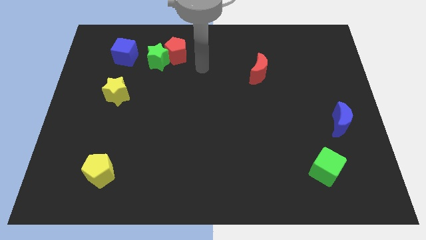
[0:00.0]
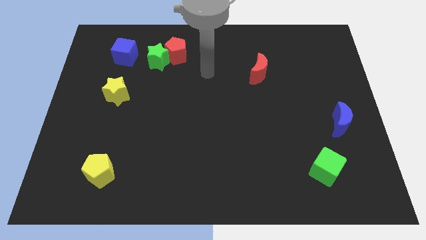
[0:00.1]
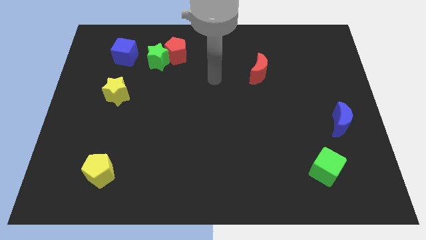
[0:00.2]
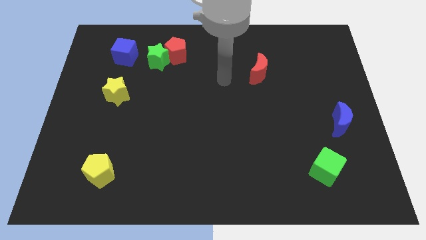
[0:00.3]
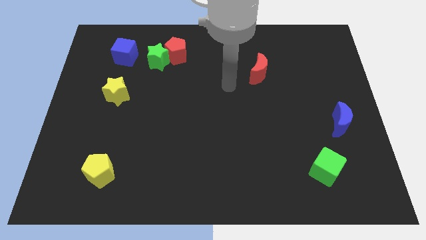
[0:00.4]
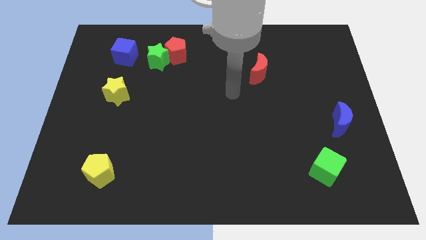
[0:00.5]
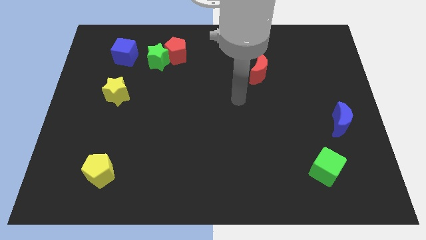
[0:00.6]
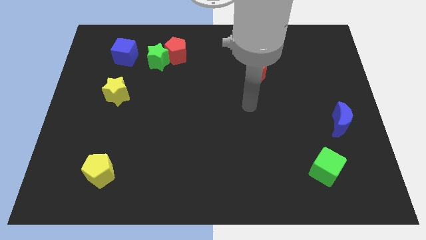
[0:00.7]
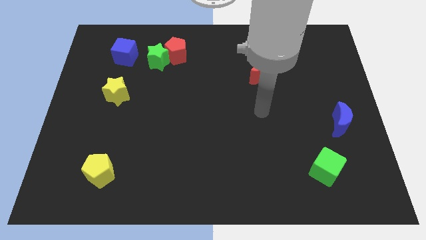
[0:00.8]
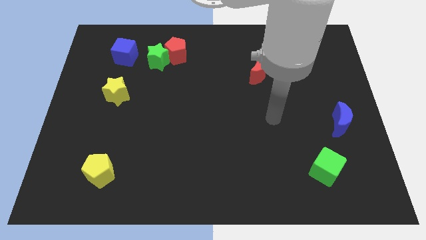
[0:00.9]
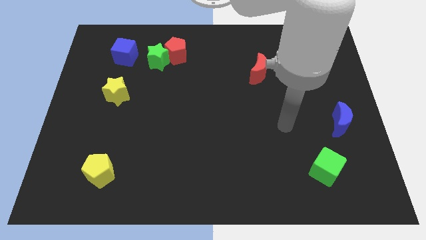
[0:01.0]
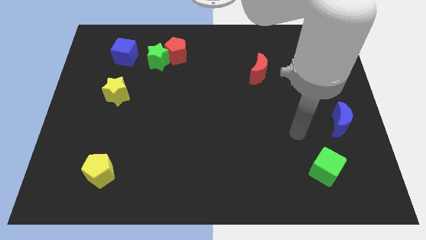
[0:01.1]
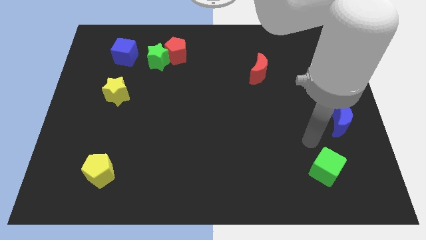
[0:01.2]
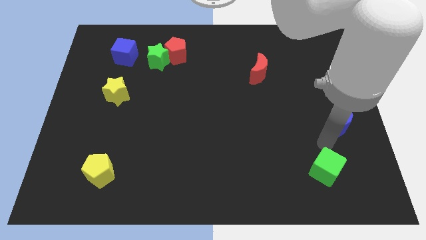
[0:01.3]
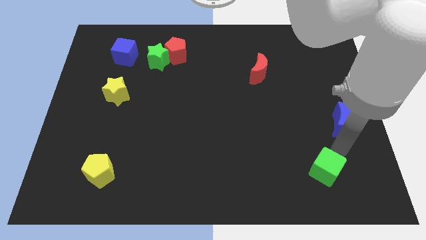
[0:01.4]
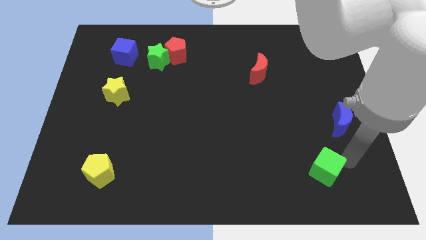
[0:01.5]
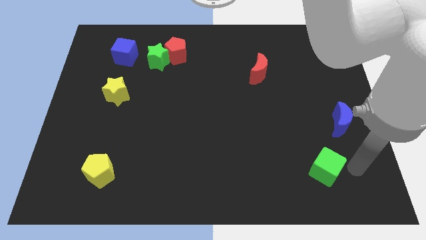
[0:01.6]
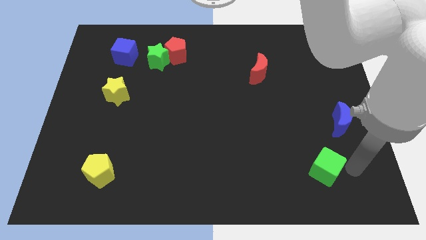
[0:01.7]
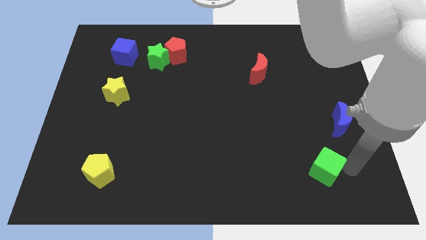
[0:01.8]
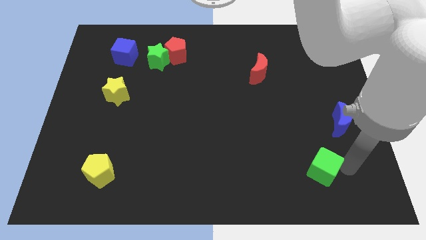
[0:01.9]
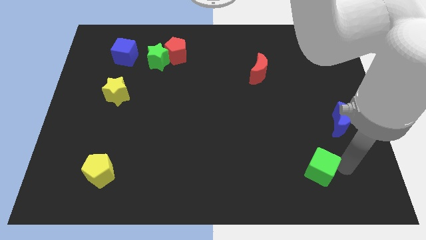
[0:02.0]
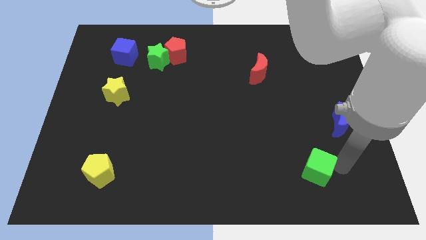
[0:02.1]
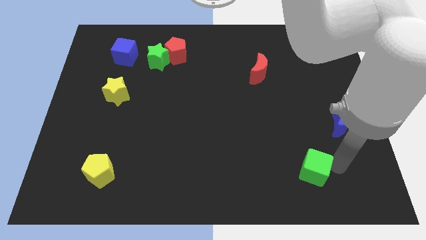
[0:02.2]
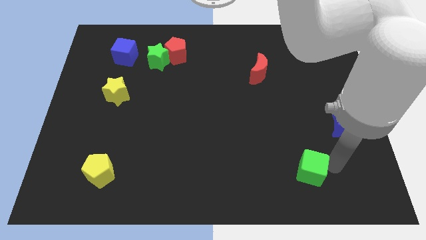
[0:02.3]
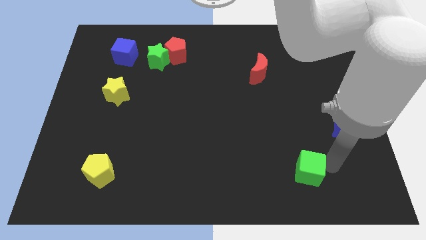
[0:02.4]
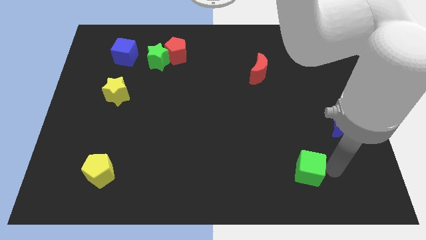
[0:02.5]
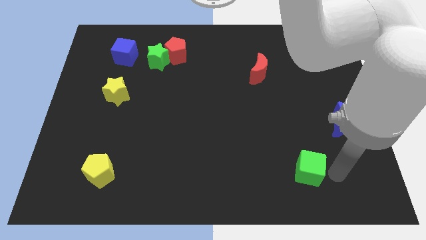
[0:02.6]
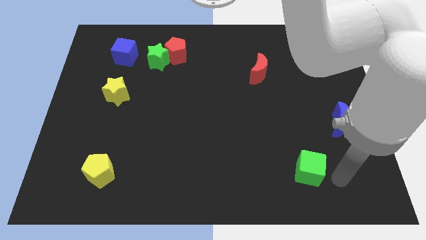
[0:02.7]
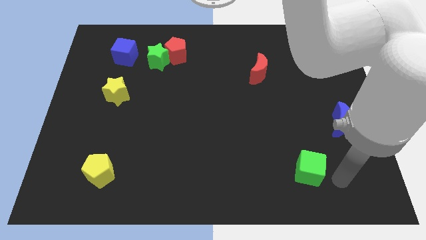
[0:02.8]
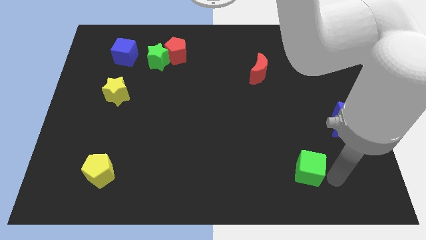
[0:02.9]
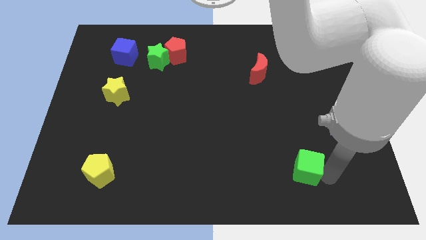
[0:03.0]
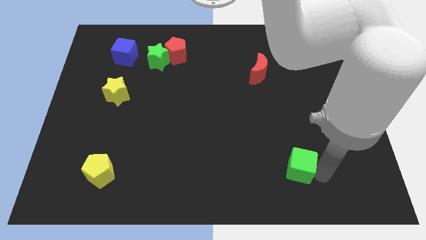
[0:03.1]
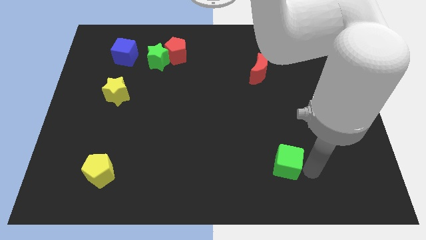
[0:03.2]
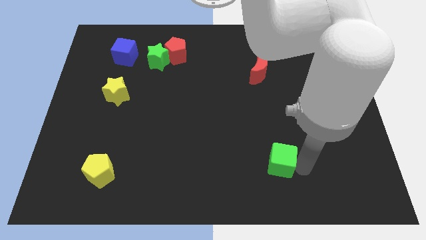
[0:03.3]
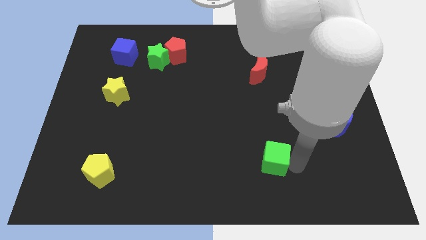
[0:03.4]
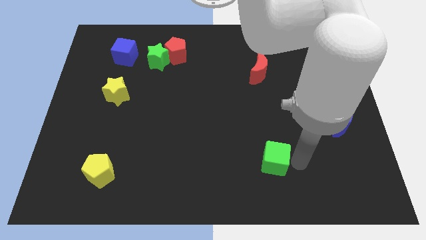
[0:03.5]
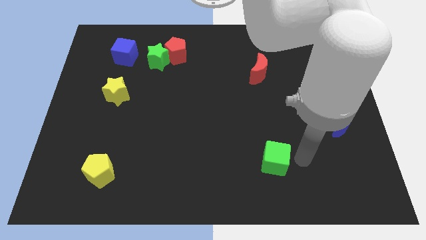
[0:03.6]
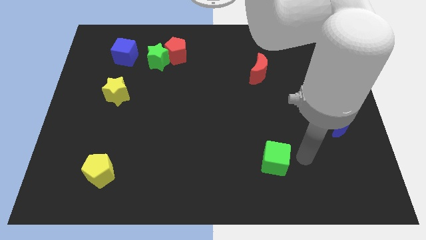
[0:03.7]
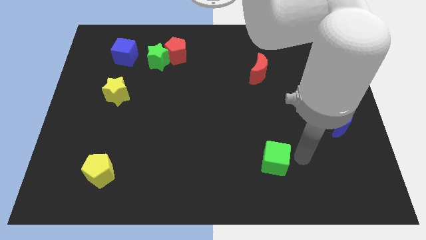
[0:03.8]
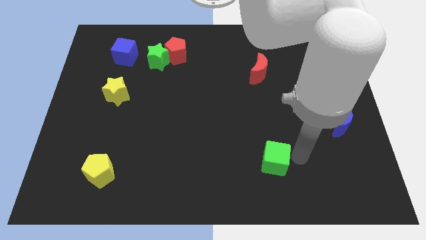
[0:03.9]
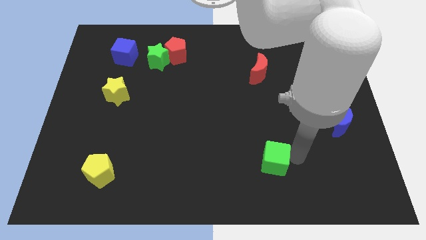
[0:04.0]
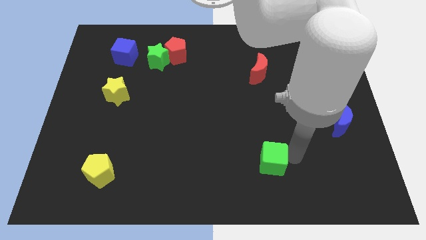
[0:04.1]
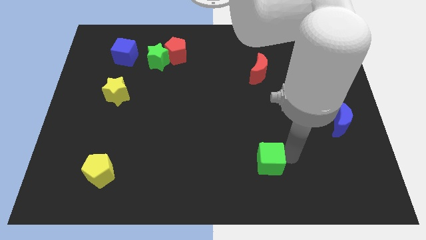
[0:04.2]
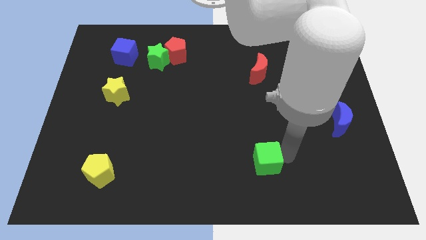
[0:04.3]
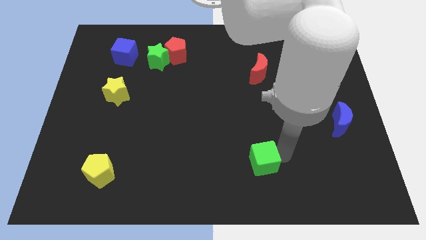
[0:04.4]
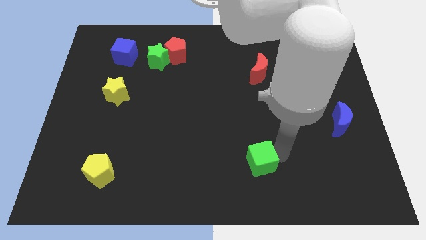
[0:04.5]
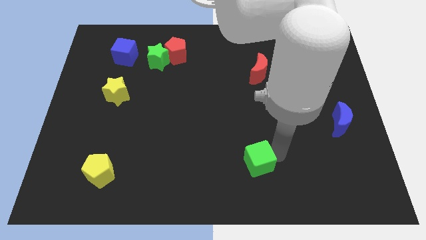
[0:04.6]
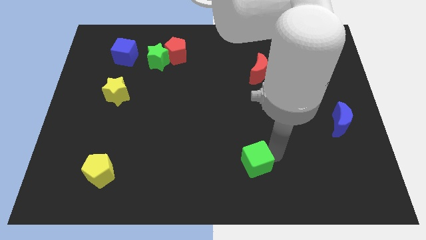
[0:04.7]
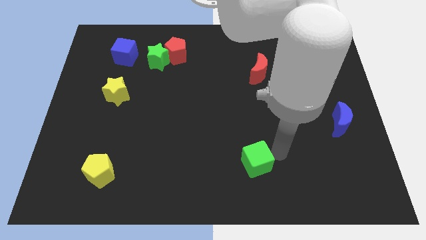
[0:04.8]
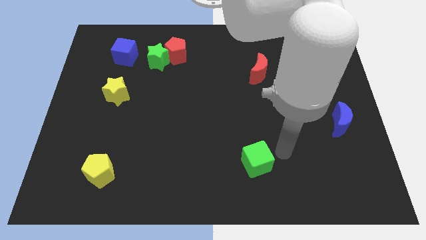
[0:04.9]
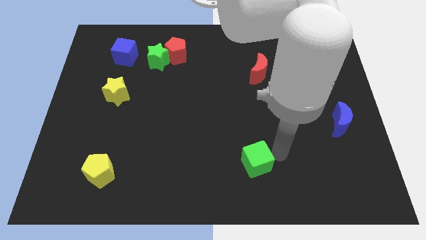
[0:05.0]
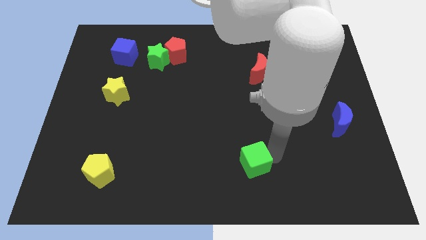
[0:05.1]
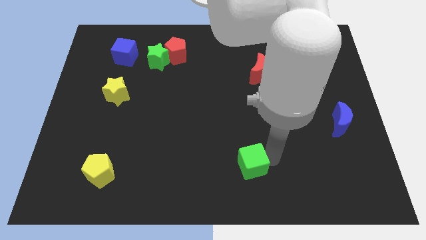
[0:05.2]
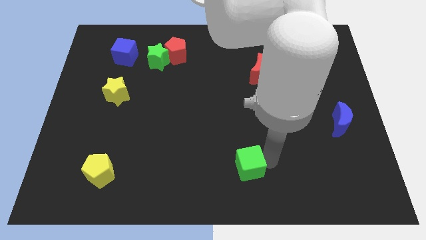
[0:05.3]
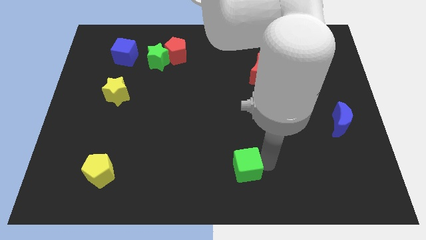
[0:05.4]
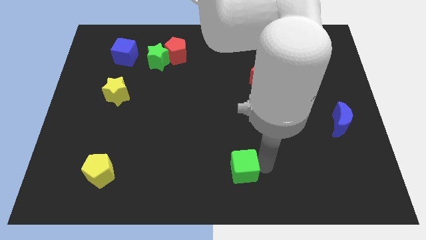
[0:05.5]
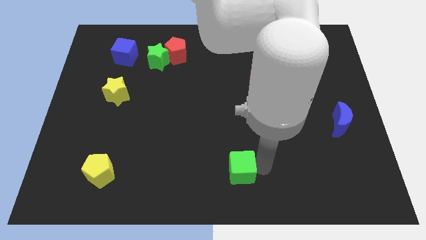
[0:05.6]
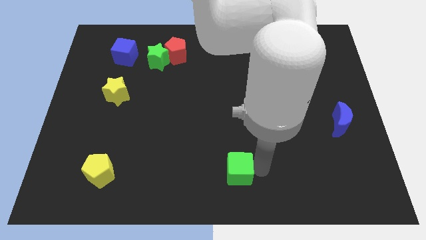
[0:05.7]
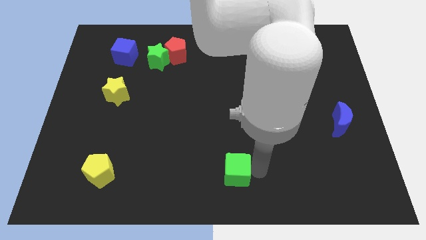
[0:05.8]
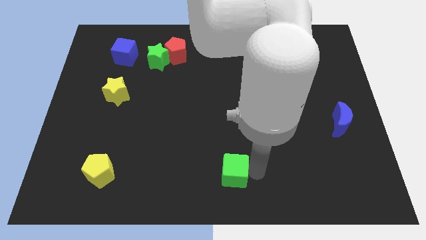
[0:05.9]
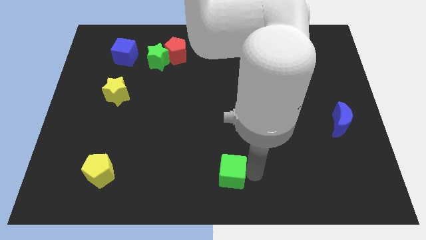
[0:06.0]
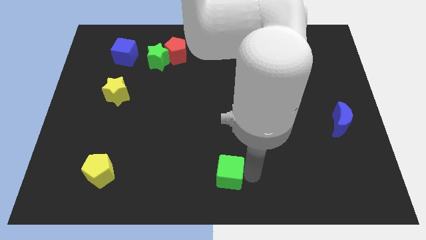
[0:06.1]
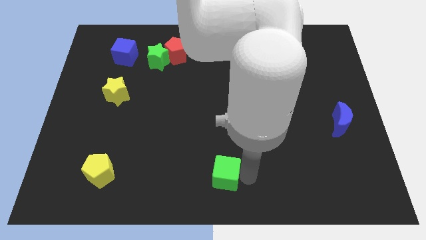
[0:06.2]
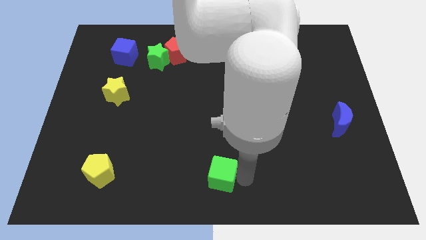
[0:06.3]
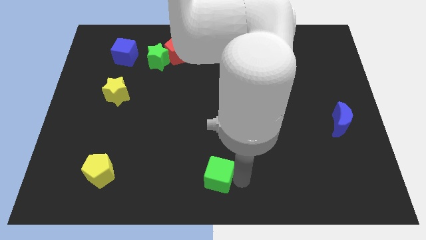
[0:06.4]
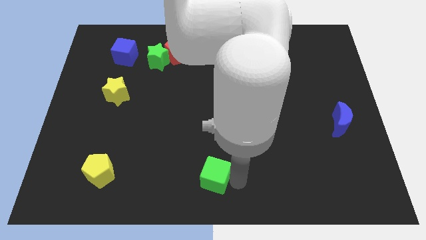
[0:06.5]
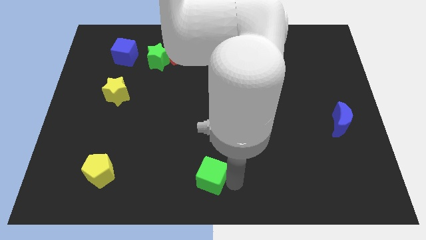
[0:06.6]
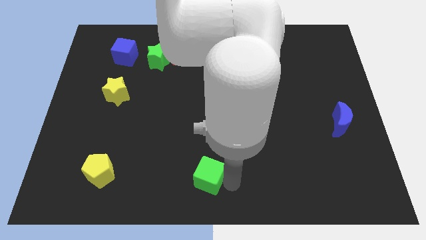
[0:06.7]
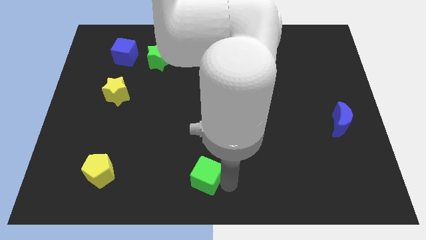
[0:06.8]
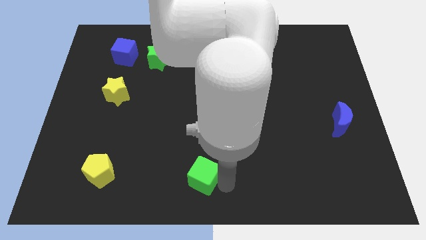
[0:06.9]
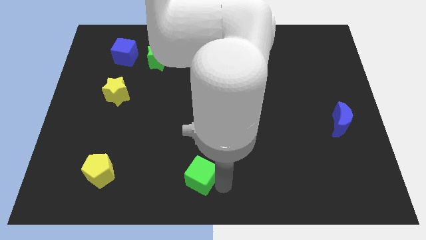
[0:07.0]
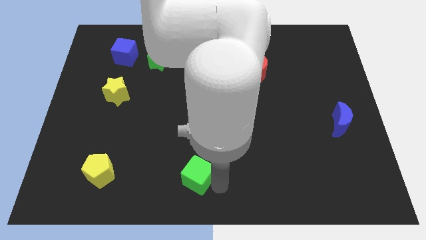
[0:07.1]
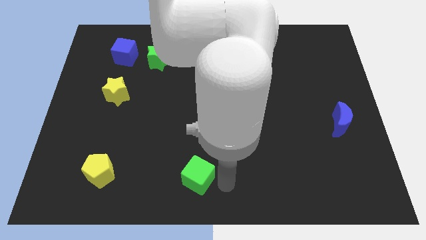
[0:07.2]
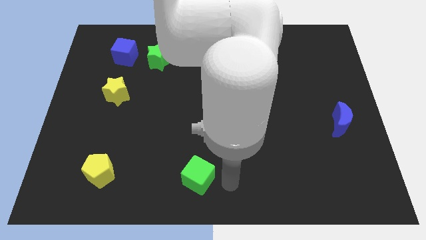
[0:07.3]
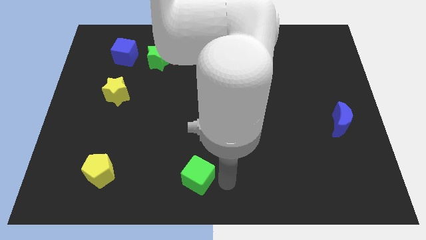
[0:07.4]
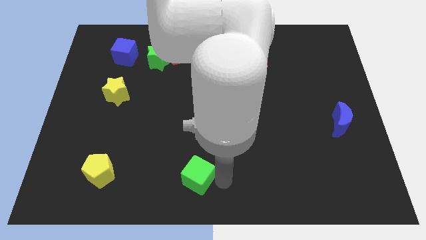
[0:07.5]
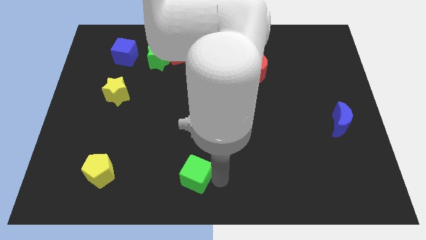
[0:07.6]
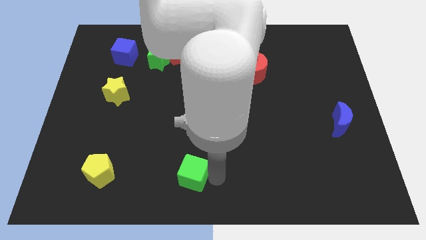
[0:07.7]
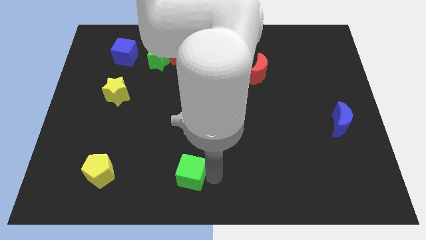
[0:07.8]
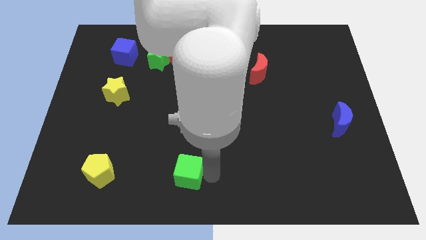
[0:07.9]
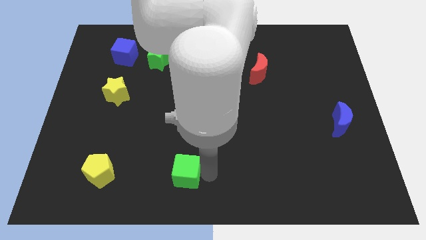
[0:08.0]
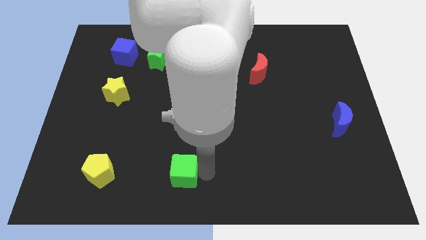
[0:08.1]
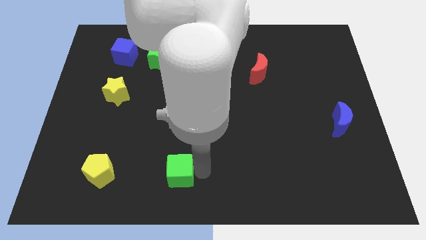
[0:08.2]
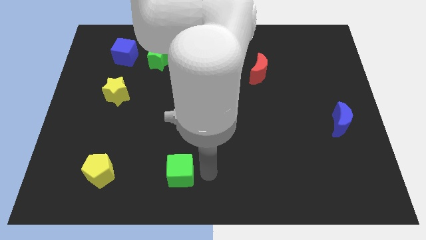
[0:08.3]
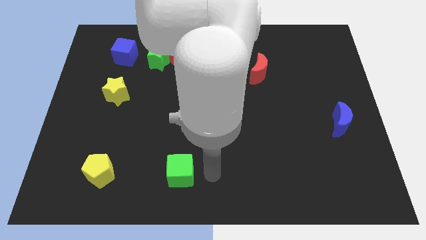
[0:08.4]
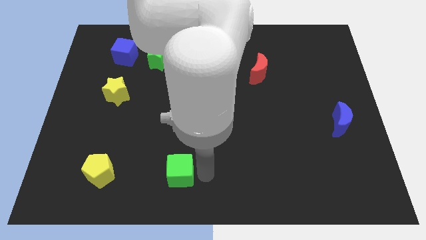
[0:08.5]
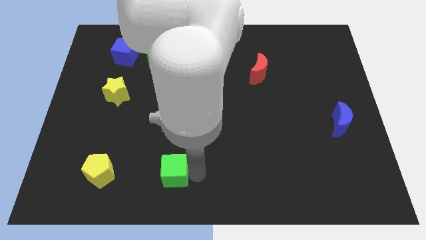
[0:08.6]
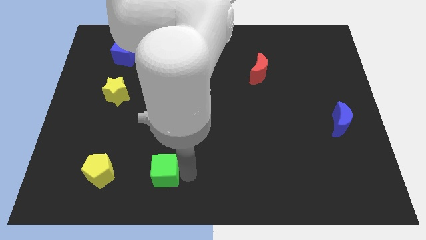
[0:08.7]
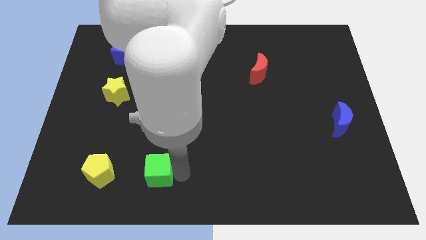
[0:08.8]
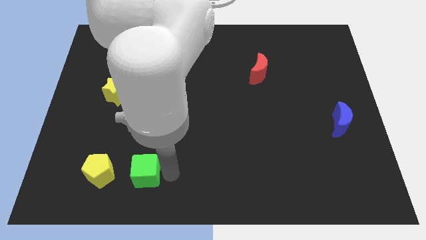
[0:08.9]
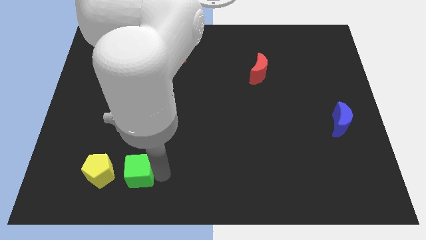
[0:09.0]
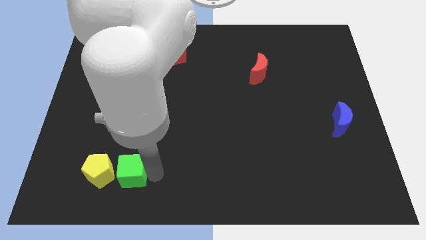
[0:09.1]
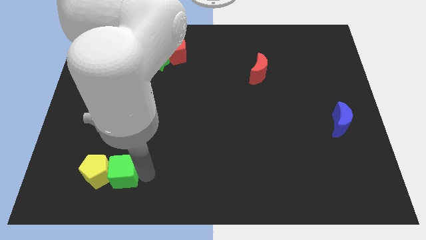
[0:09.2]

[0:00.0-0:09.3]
push the green cube towards the yellow pentagon
